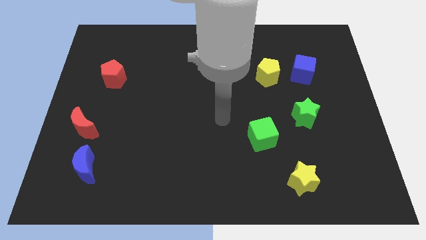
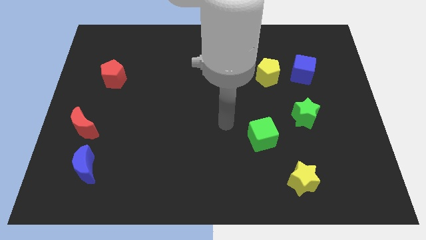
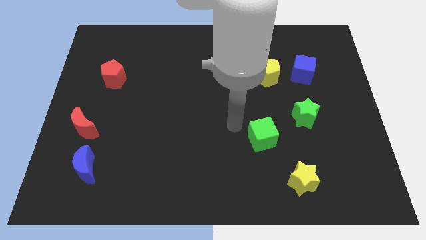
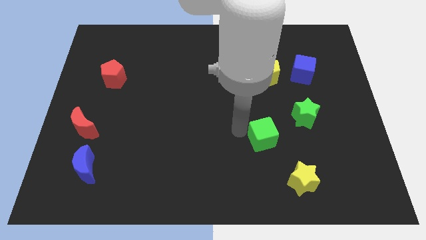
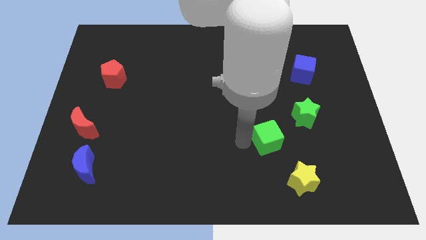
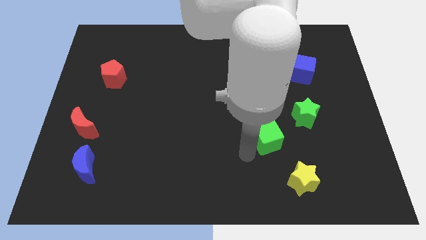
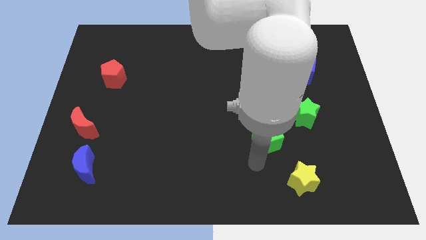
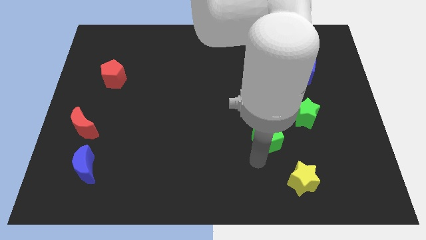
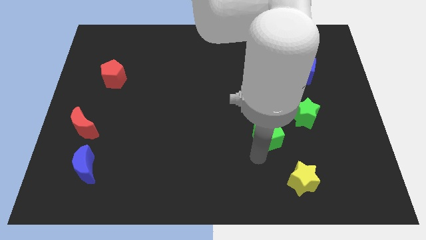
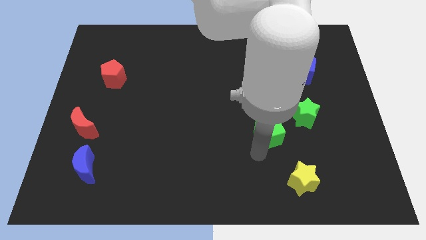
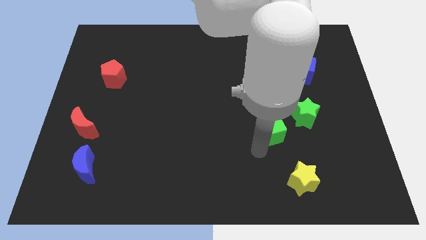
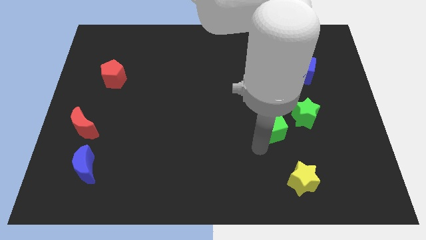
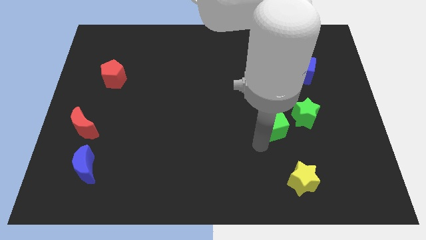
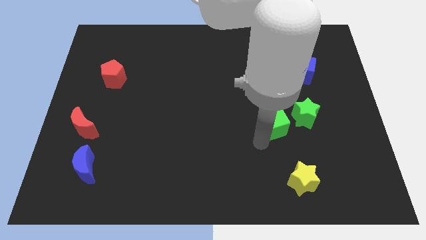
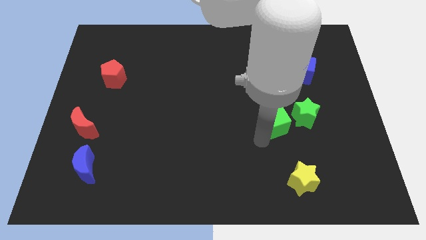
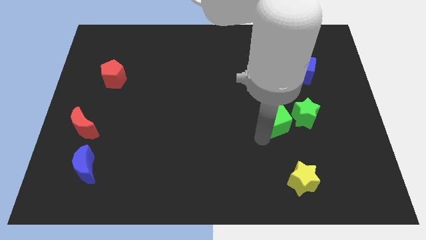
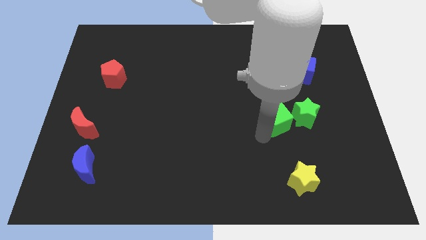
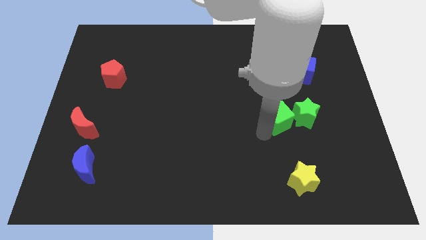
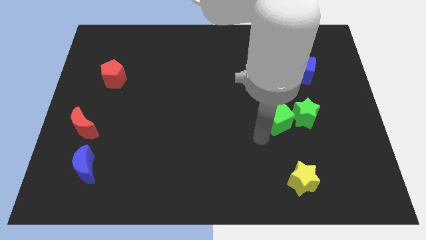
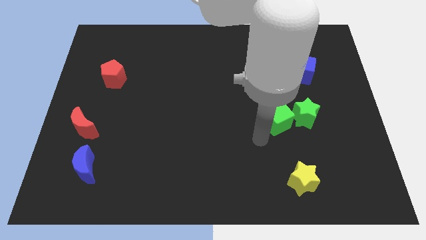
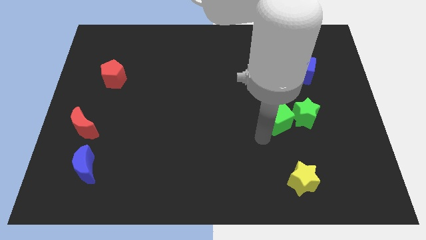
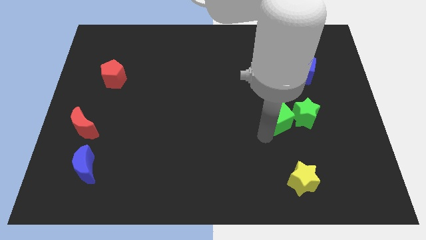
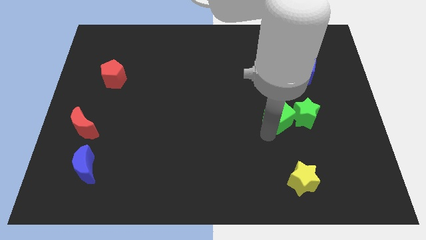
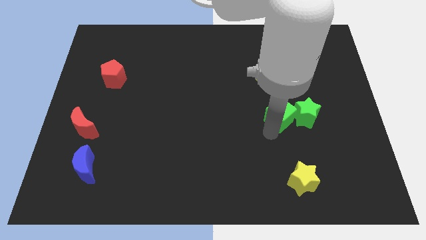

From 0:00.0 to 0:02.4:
slide the green cube a bit diagonally upwards and right

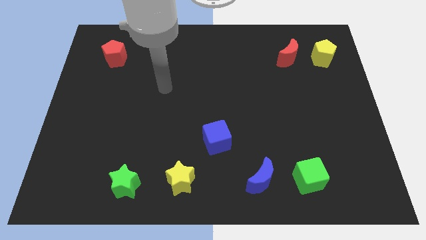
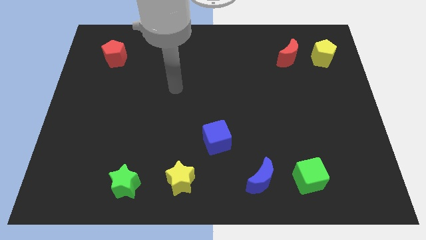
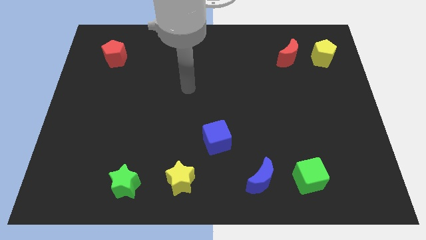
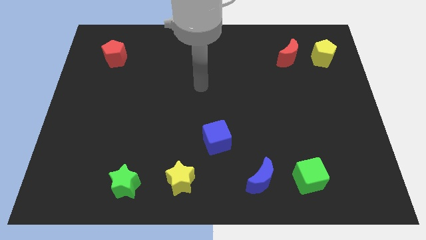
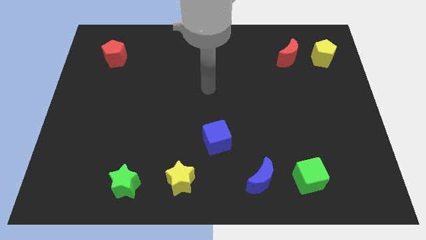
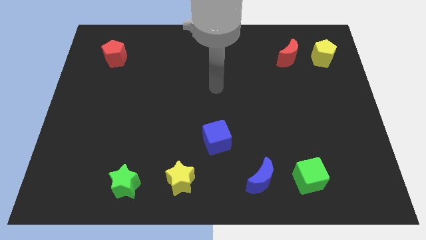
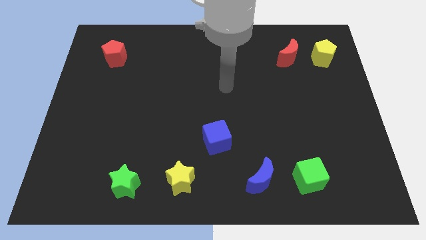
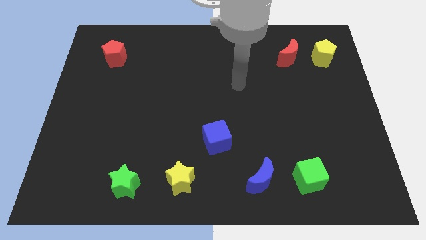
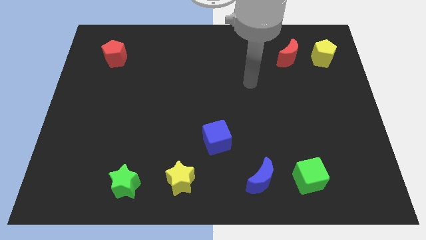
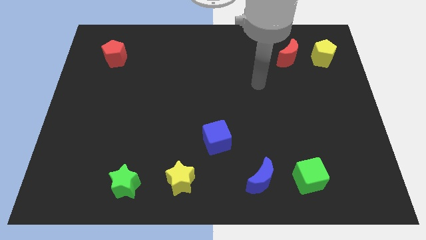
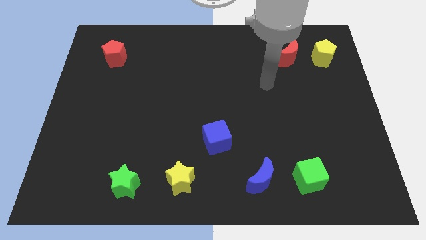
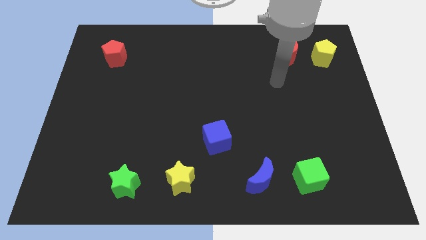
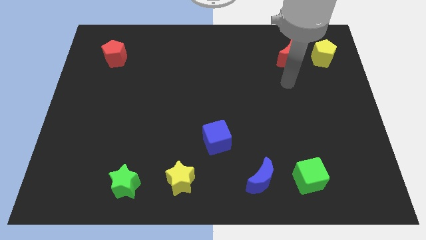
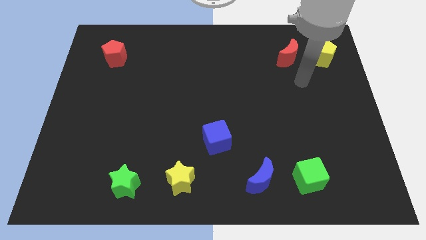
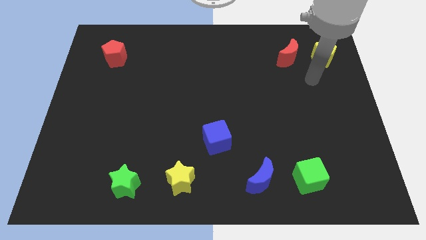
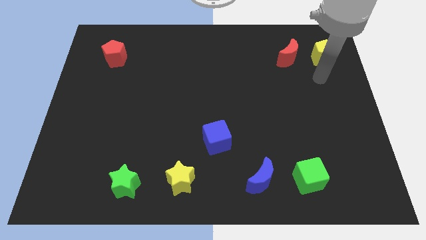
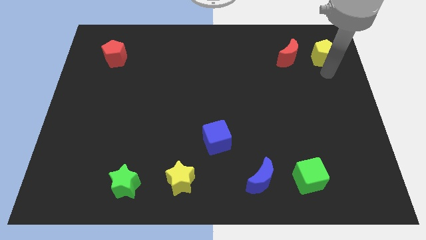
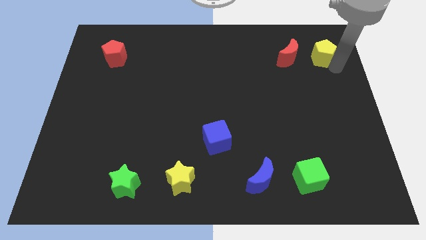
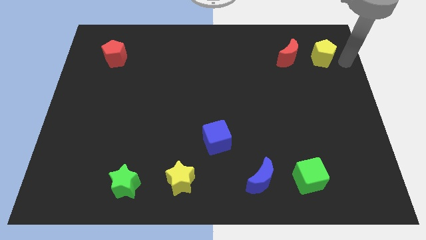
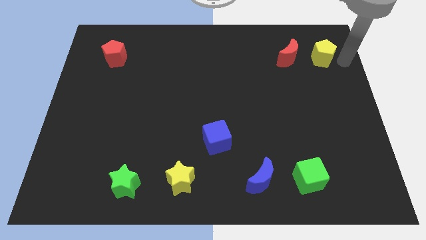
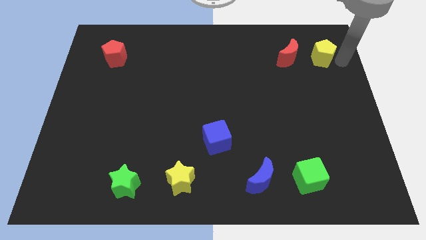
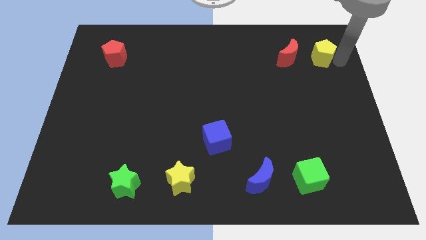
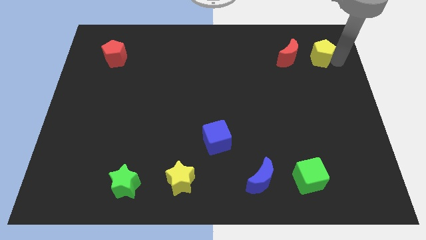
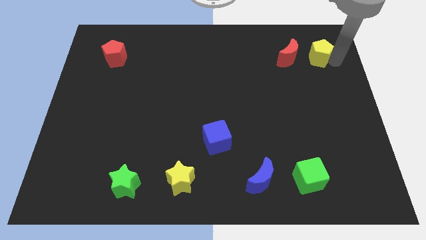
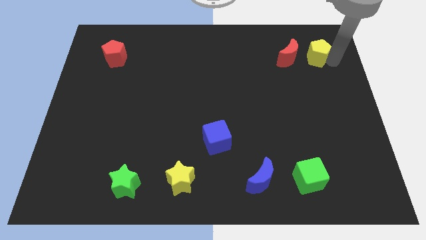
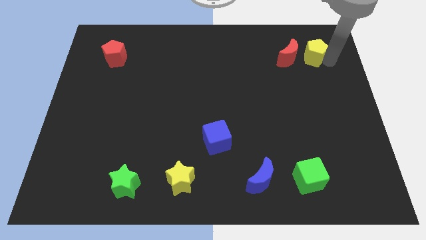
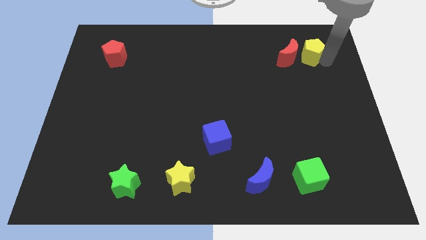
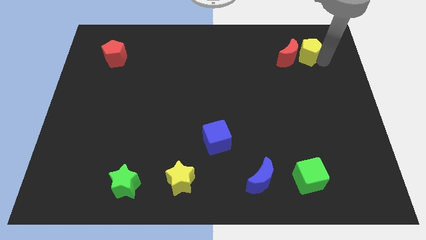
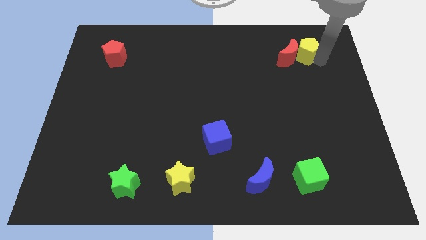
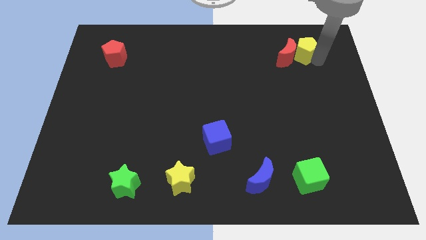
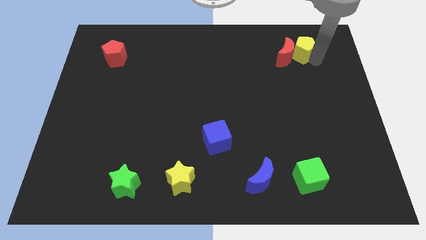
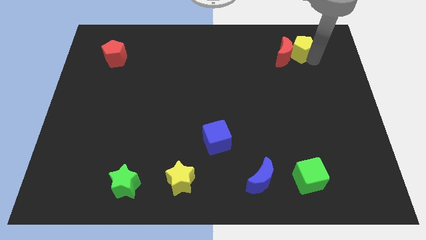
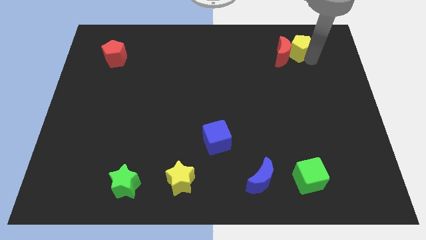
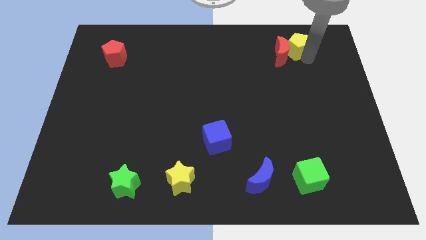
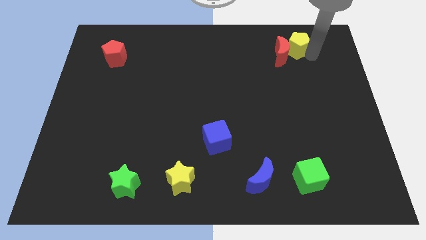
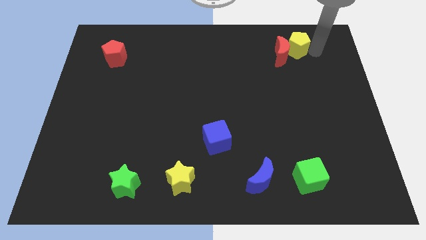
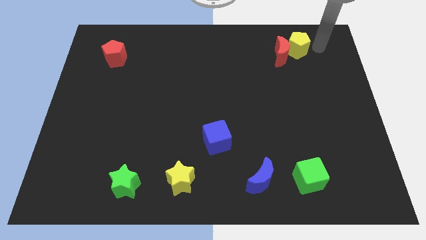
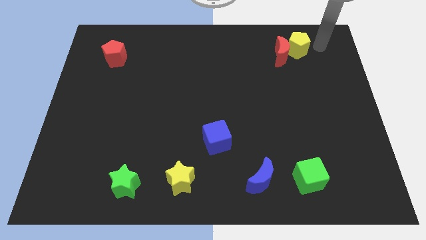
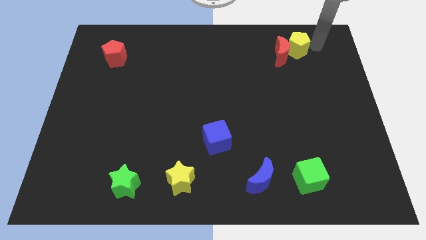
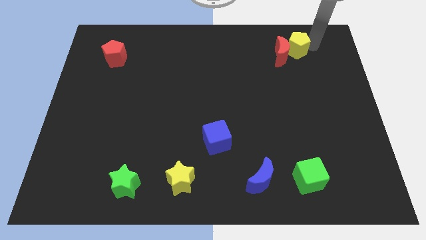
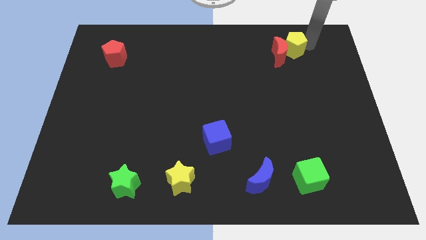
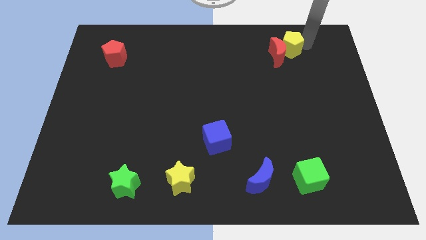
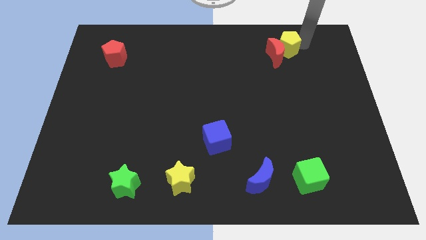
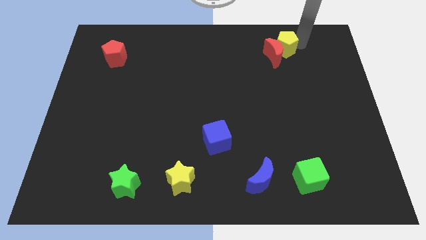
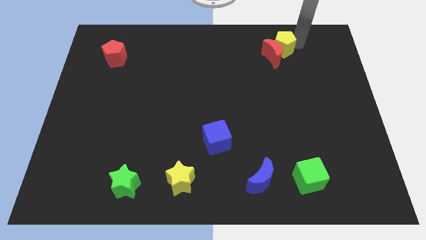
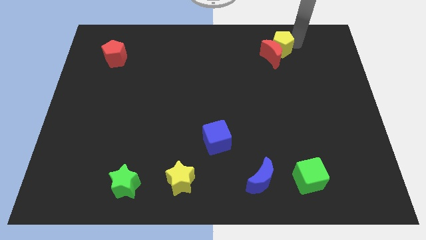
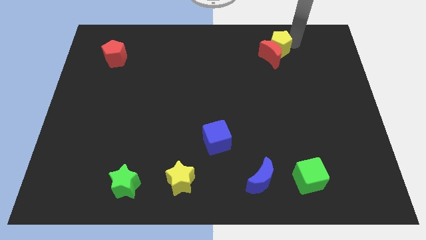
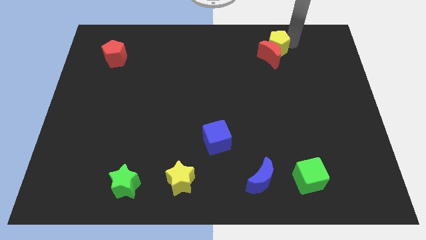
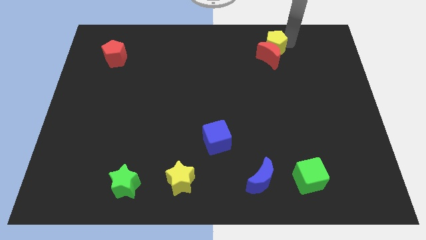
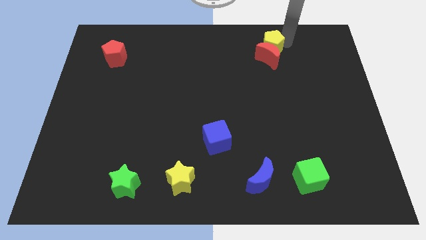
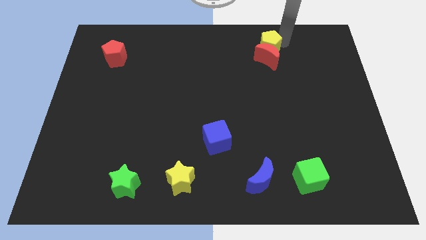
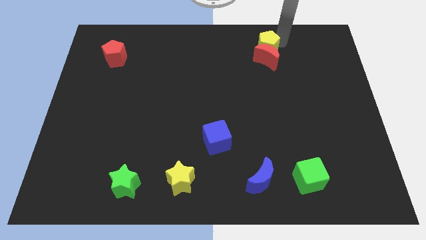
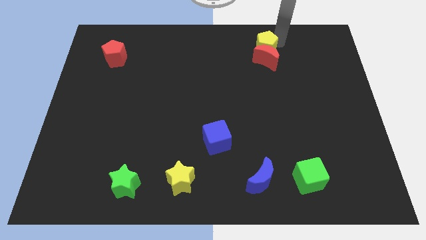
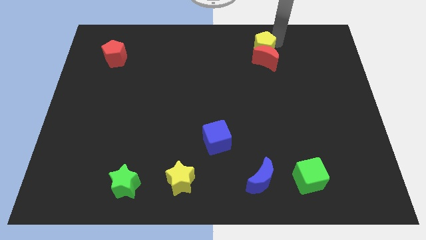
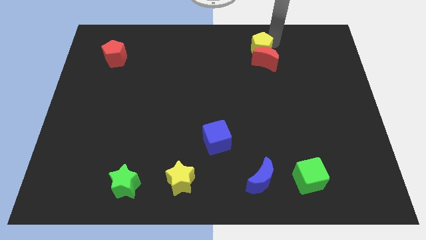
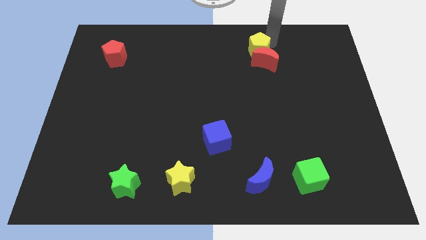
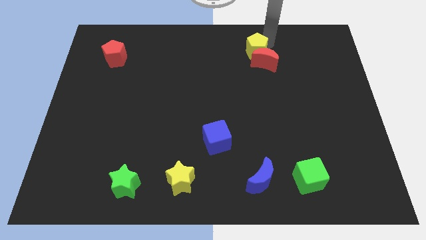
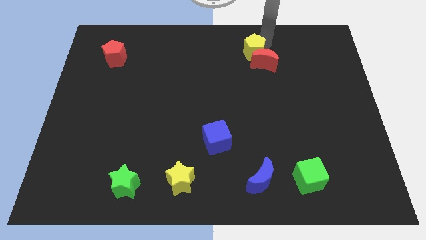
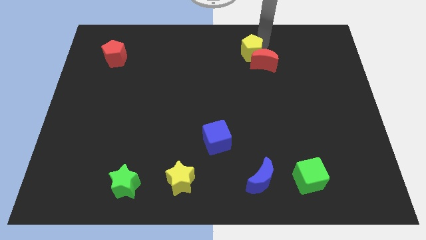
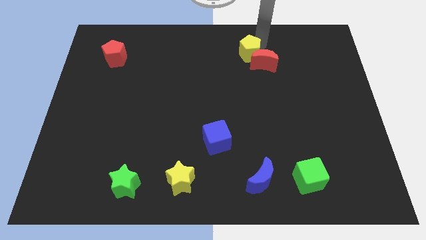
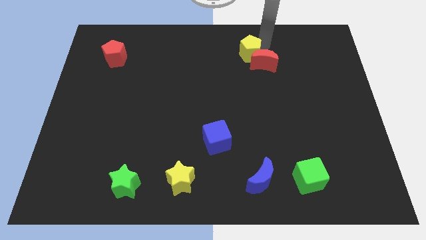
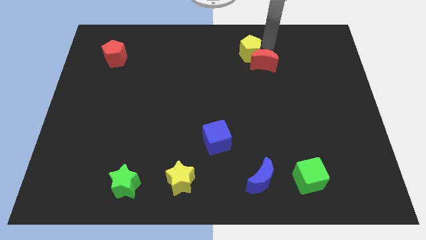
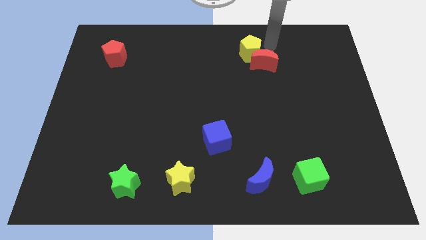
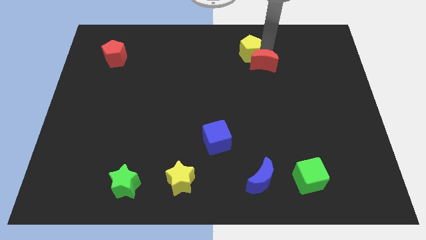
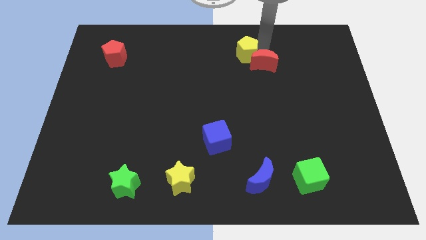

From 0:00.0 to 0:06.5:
push the yellow pentagon left
